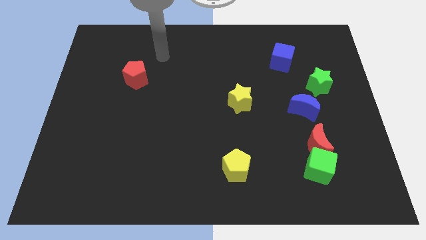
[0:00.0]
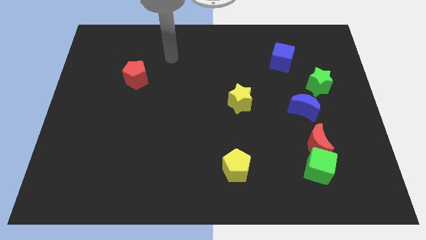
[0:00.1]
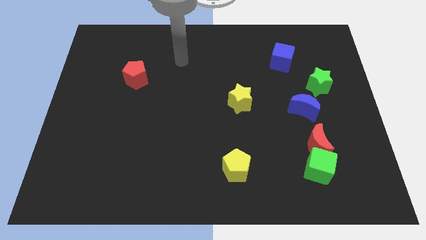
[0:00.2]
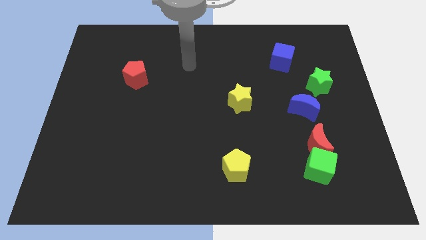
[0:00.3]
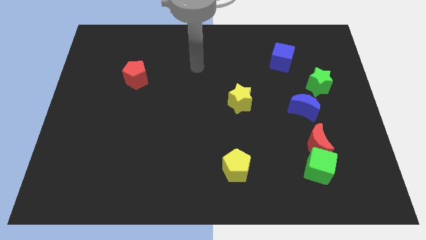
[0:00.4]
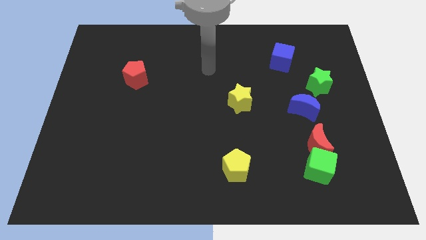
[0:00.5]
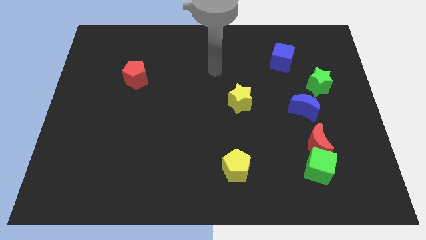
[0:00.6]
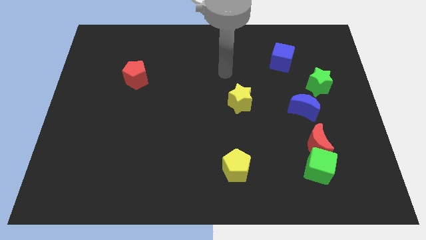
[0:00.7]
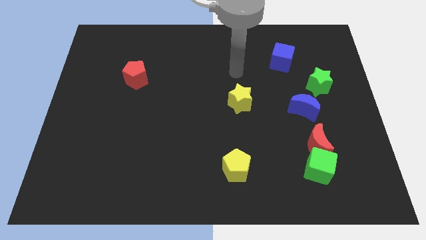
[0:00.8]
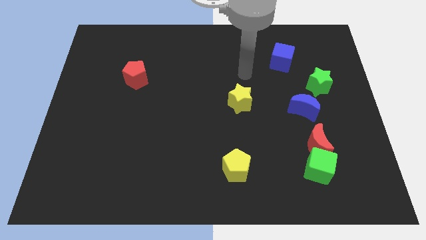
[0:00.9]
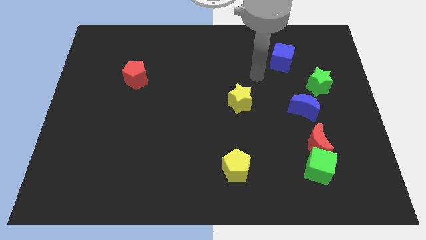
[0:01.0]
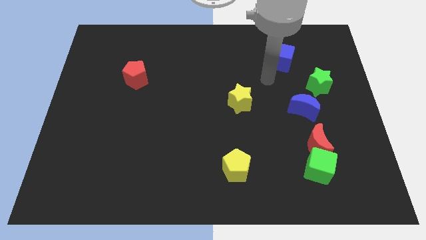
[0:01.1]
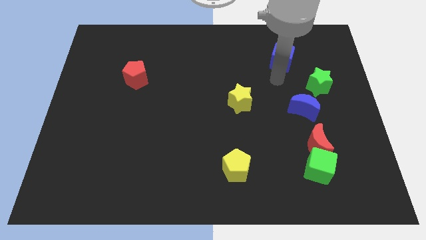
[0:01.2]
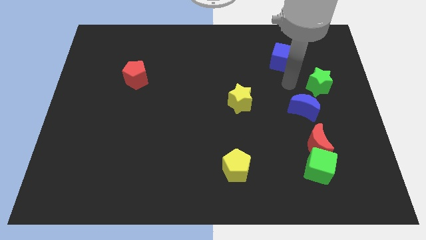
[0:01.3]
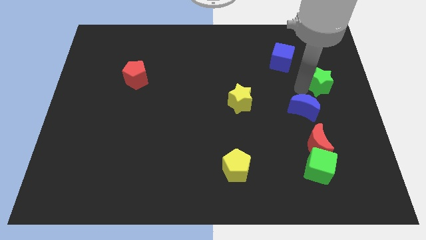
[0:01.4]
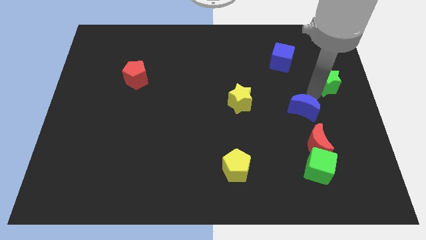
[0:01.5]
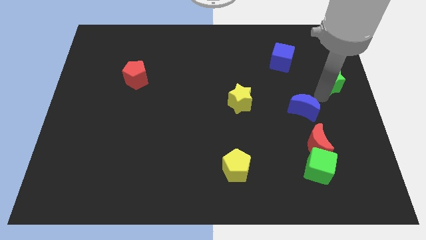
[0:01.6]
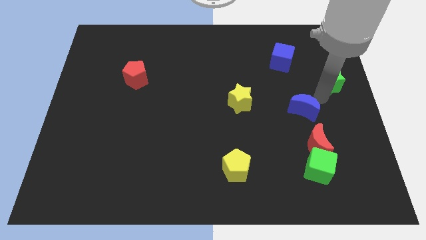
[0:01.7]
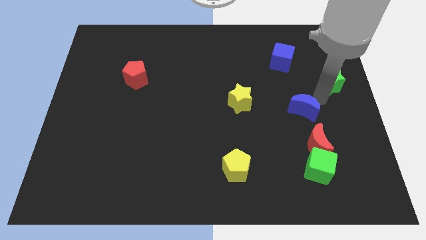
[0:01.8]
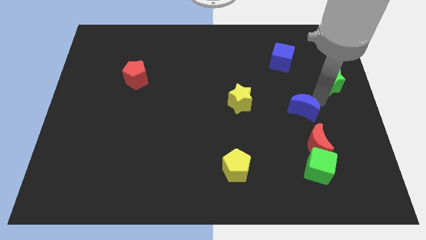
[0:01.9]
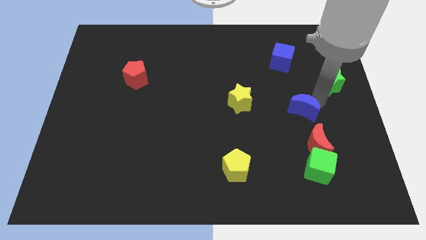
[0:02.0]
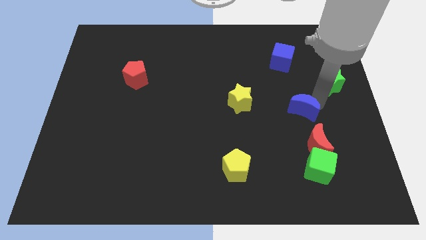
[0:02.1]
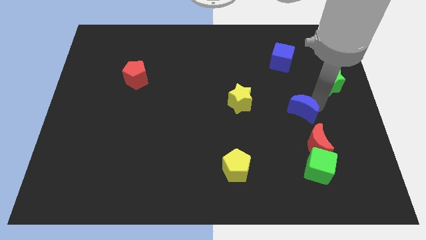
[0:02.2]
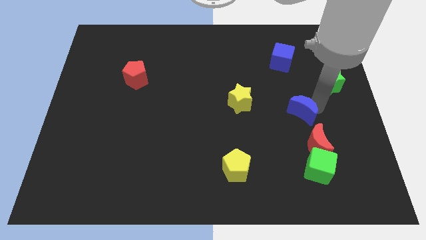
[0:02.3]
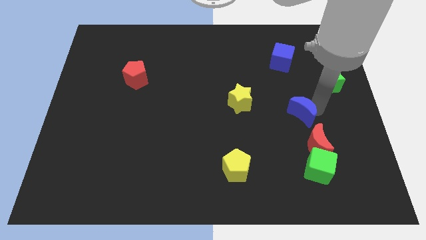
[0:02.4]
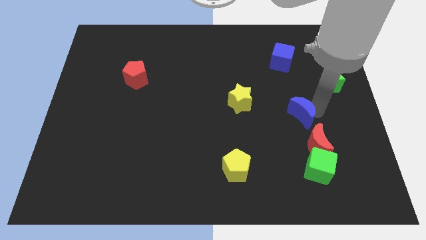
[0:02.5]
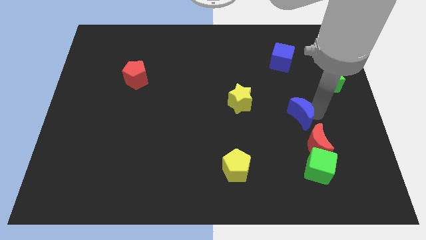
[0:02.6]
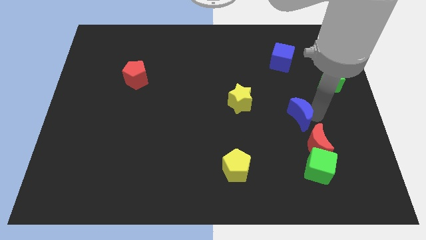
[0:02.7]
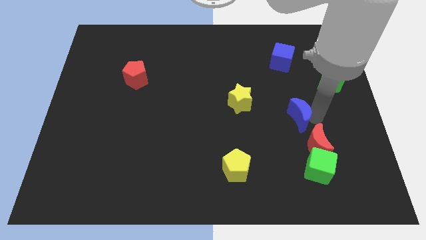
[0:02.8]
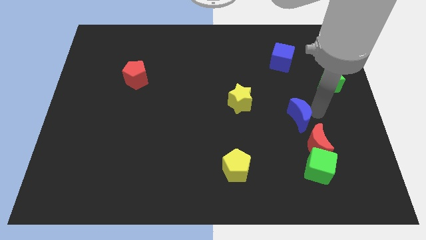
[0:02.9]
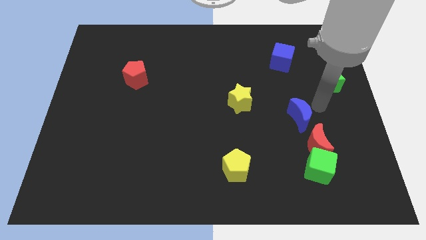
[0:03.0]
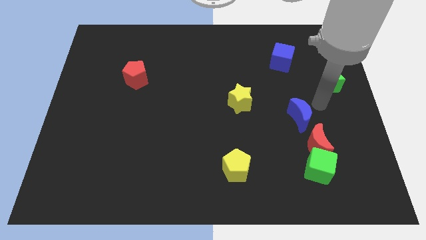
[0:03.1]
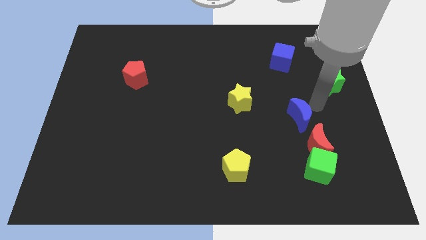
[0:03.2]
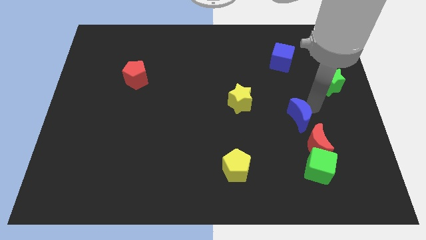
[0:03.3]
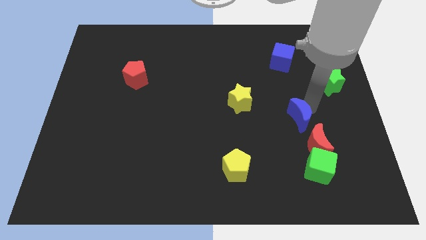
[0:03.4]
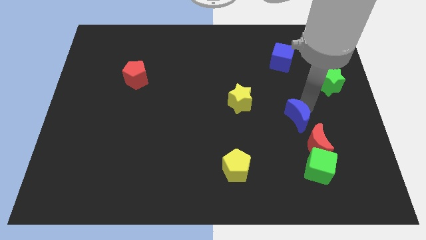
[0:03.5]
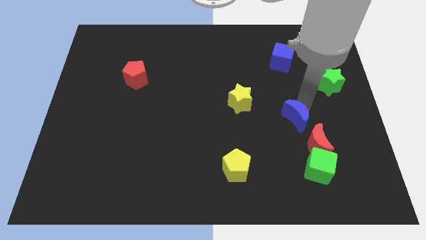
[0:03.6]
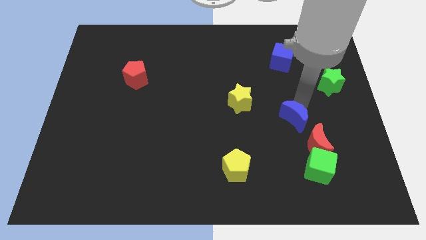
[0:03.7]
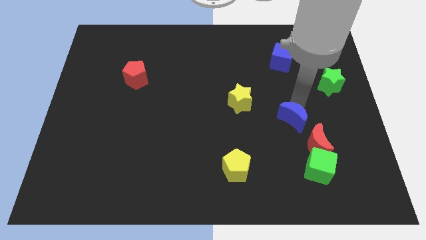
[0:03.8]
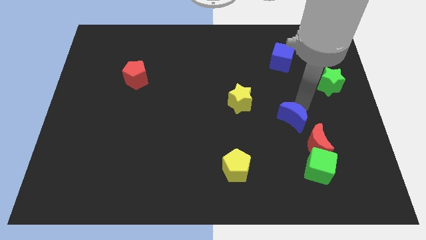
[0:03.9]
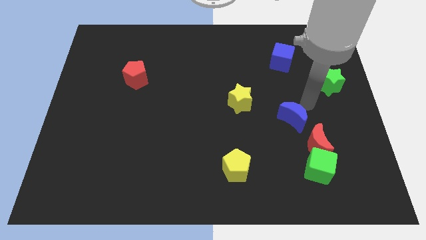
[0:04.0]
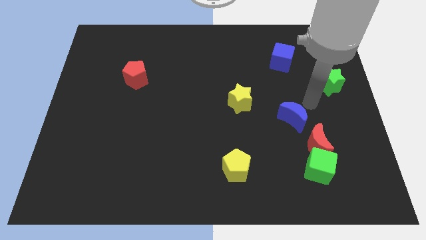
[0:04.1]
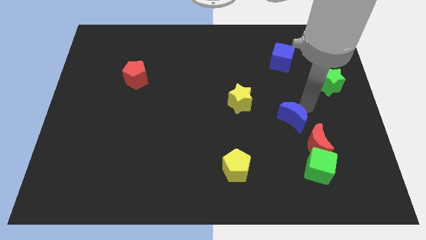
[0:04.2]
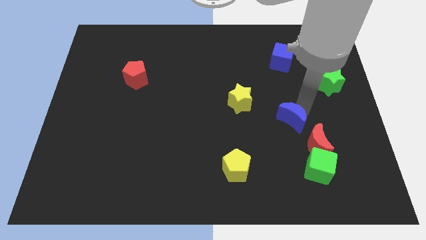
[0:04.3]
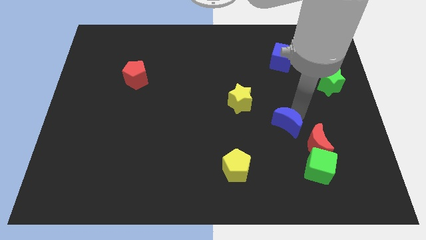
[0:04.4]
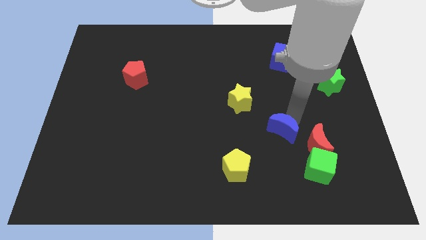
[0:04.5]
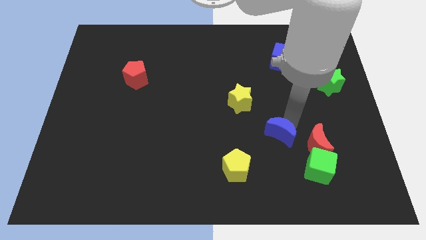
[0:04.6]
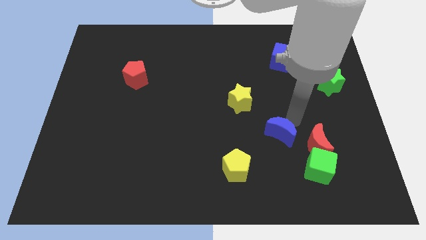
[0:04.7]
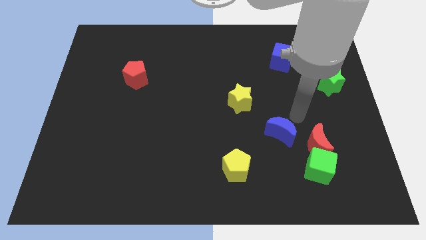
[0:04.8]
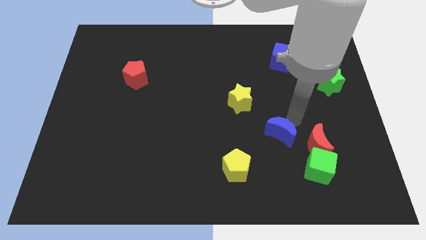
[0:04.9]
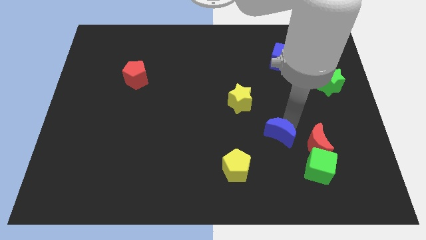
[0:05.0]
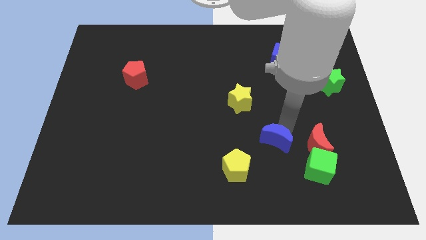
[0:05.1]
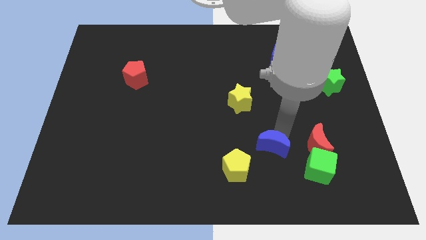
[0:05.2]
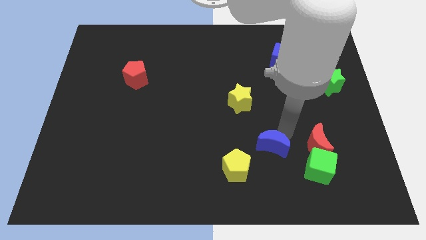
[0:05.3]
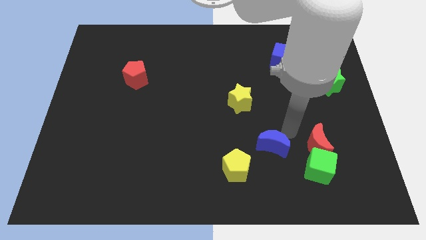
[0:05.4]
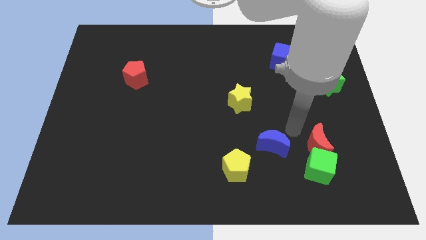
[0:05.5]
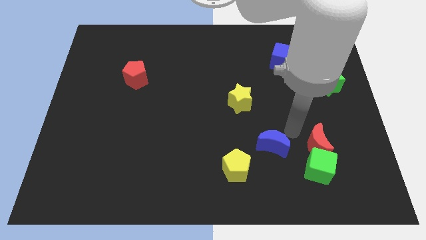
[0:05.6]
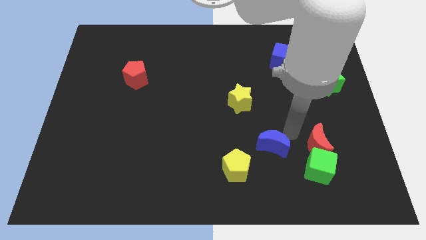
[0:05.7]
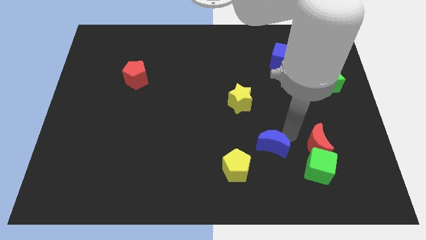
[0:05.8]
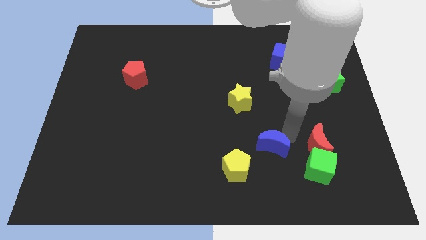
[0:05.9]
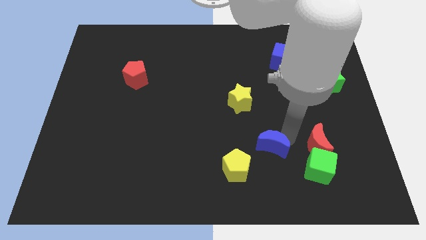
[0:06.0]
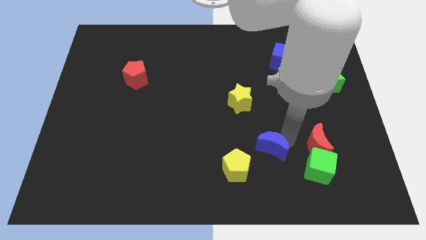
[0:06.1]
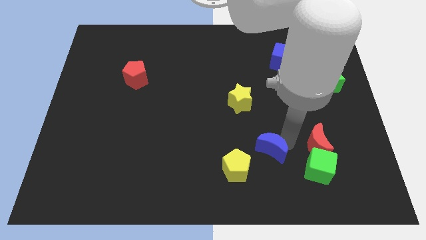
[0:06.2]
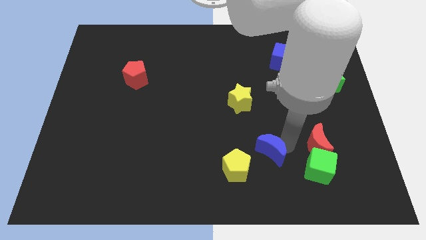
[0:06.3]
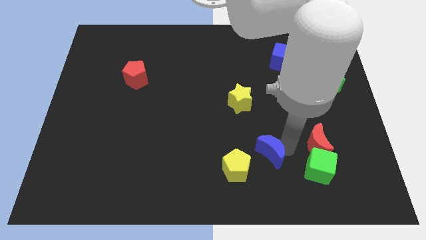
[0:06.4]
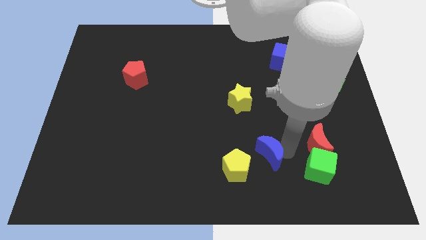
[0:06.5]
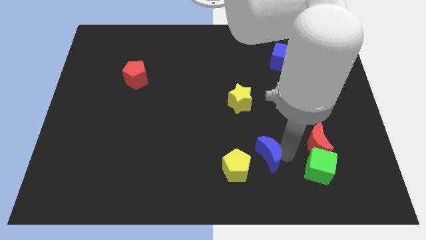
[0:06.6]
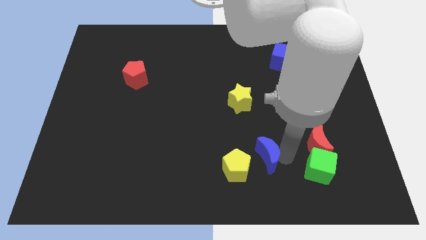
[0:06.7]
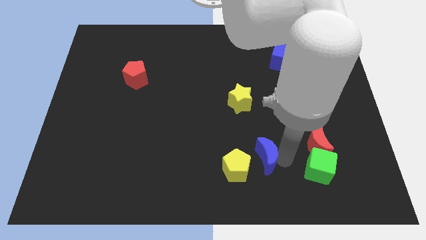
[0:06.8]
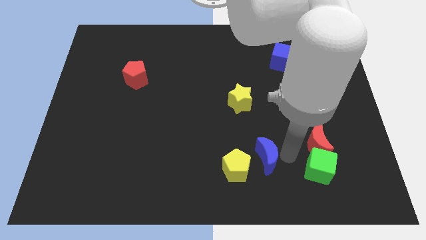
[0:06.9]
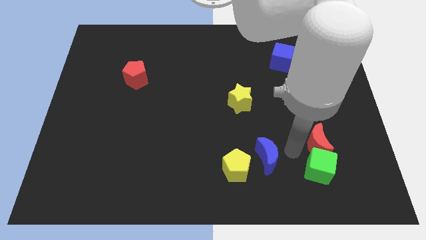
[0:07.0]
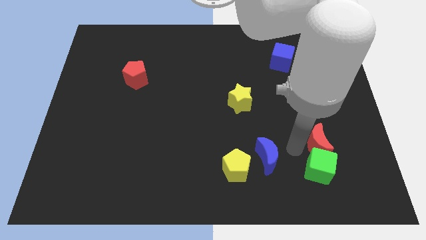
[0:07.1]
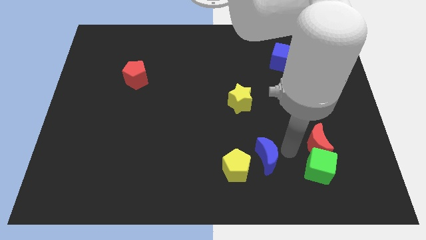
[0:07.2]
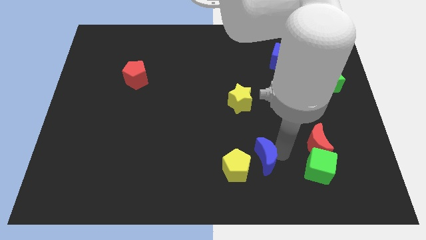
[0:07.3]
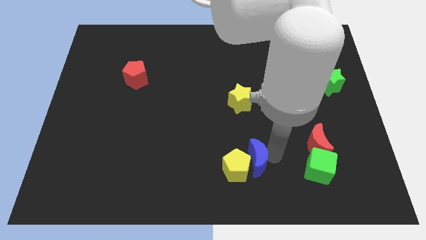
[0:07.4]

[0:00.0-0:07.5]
put the blue moon towards the yellow pentagon
